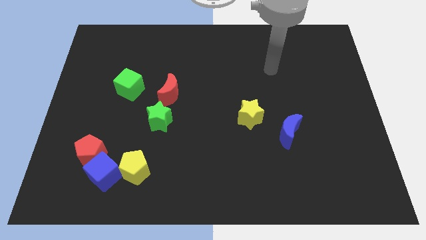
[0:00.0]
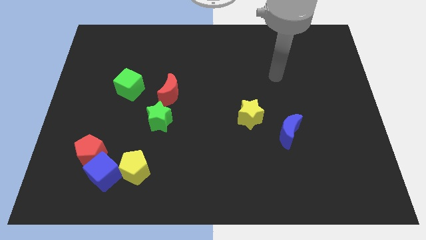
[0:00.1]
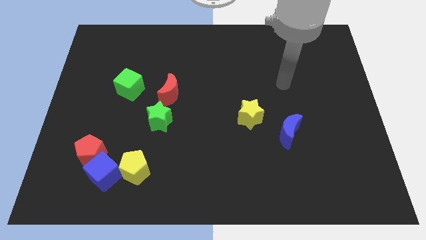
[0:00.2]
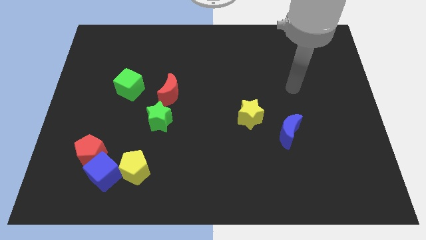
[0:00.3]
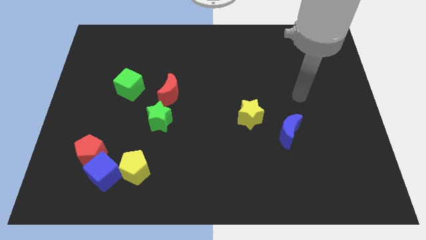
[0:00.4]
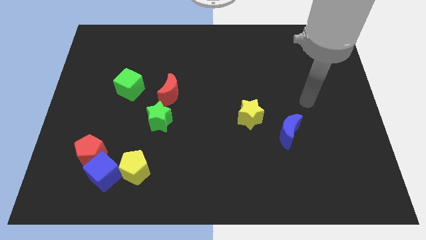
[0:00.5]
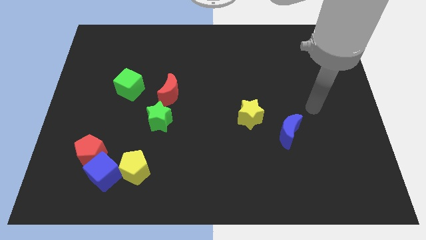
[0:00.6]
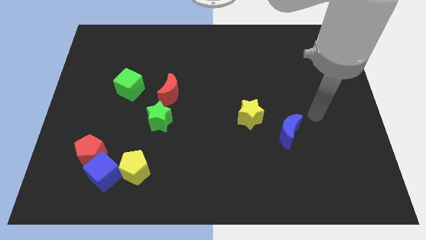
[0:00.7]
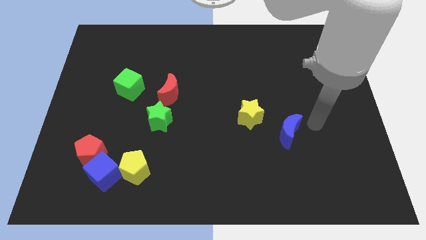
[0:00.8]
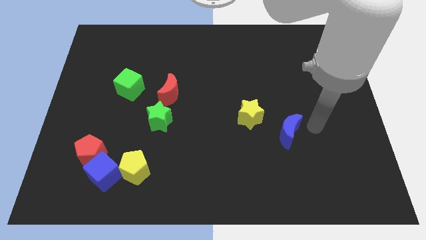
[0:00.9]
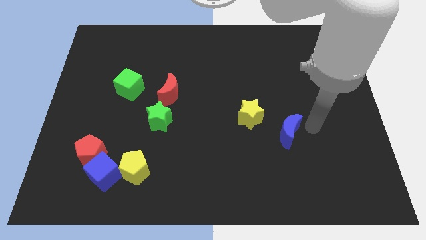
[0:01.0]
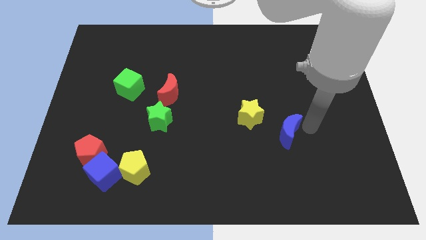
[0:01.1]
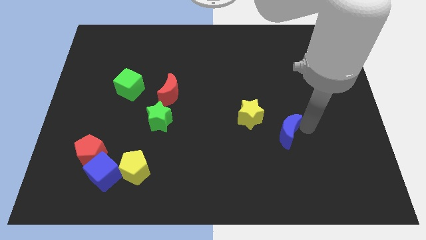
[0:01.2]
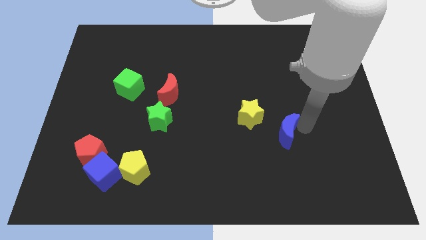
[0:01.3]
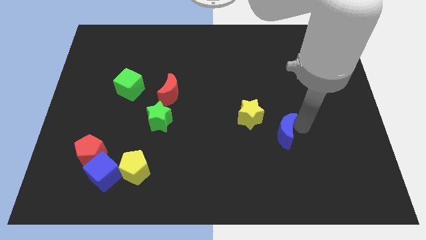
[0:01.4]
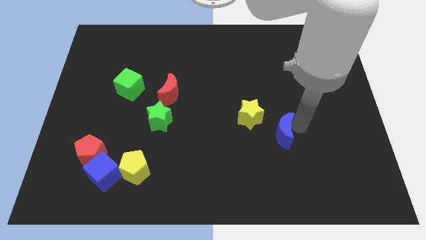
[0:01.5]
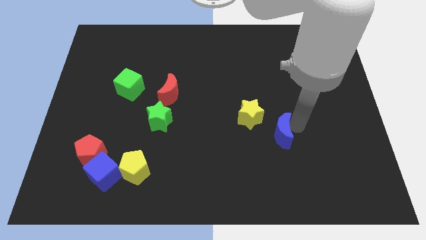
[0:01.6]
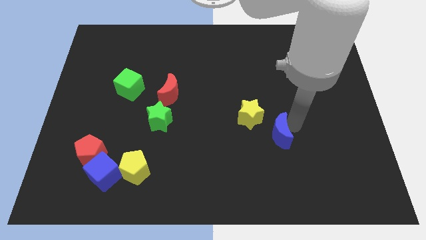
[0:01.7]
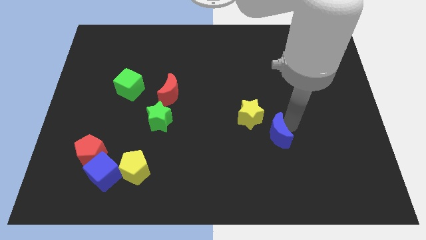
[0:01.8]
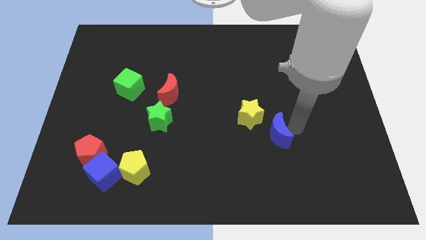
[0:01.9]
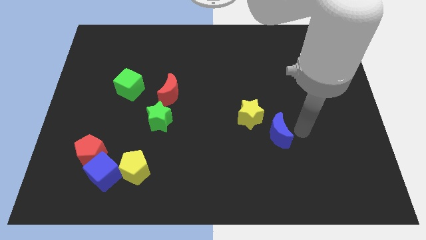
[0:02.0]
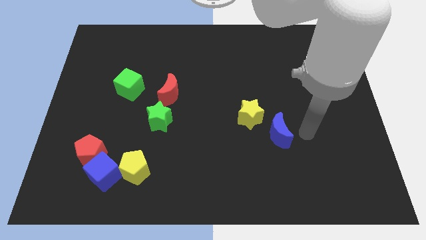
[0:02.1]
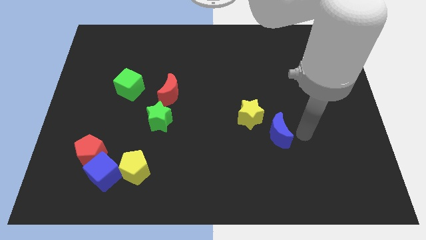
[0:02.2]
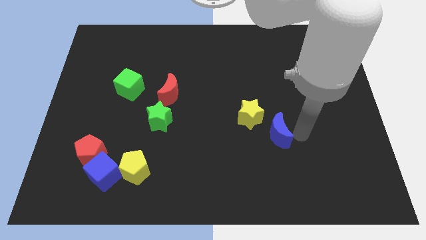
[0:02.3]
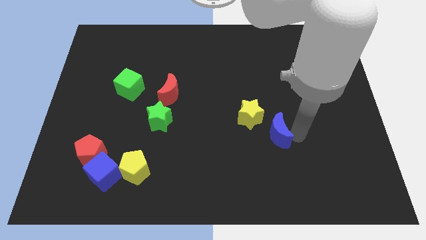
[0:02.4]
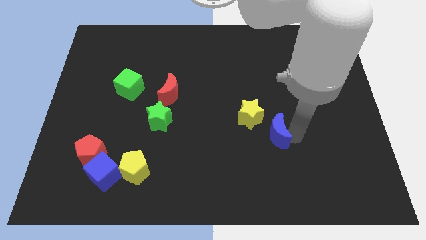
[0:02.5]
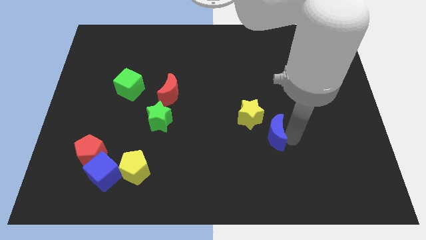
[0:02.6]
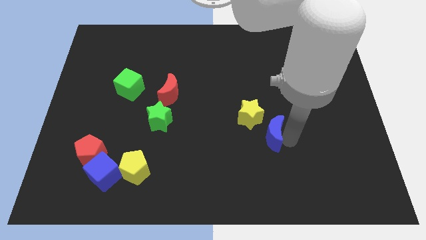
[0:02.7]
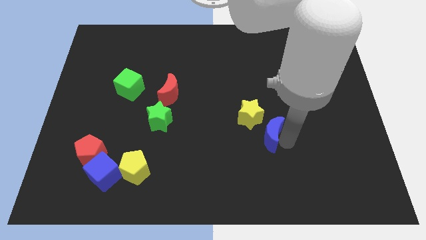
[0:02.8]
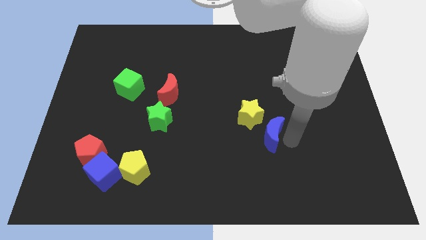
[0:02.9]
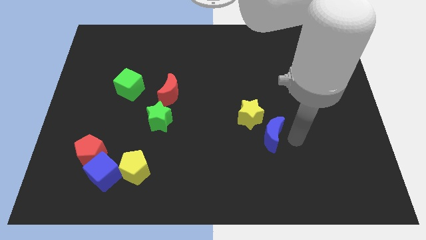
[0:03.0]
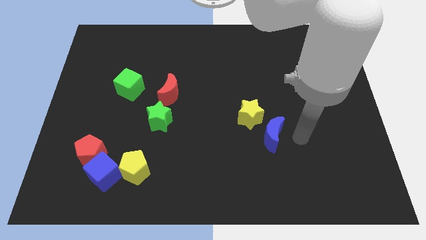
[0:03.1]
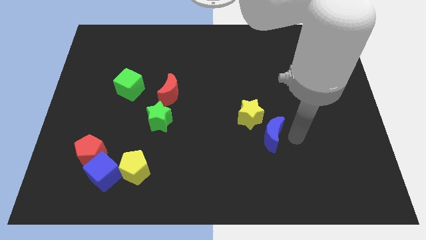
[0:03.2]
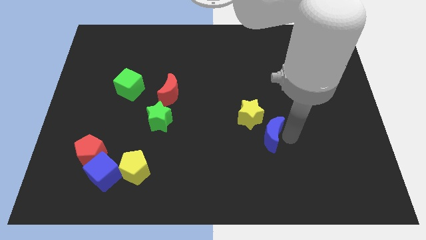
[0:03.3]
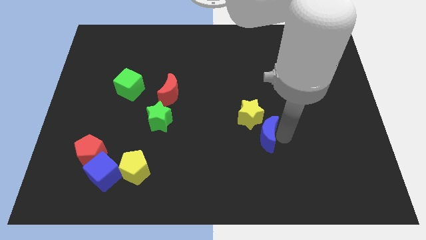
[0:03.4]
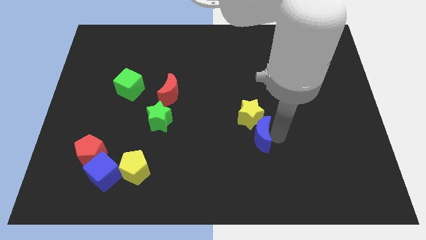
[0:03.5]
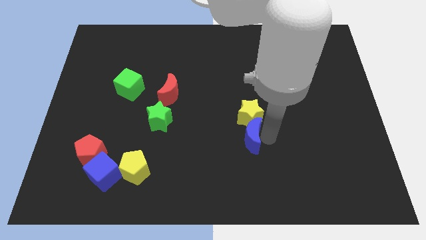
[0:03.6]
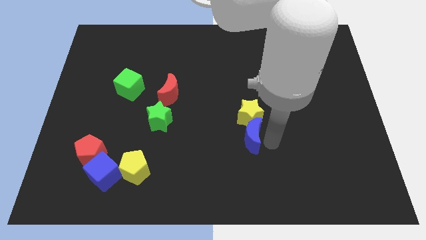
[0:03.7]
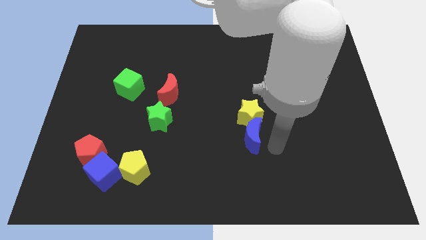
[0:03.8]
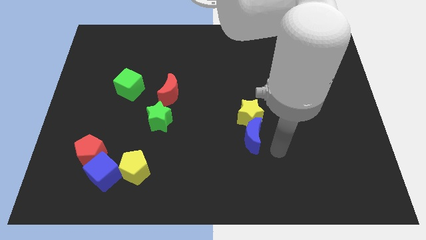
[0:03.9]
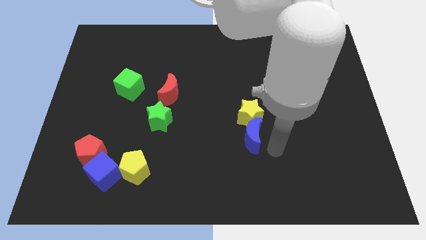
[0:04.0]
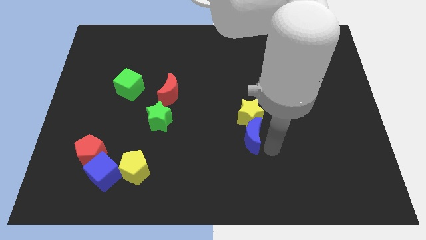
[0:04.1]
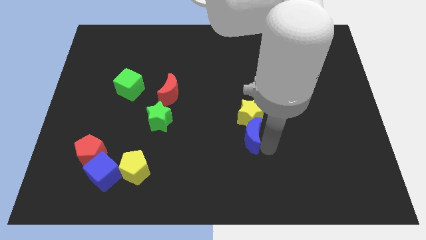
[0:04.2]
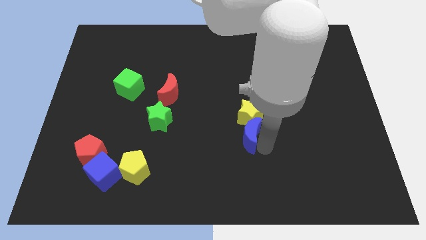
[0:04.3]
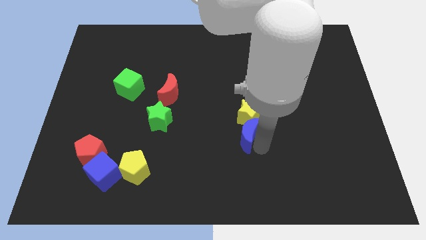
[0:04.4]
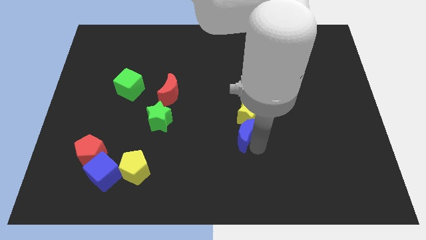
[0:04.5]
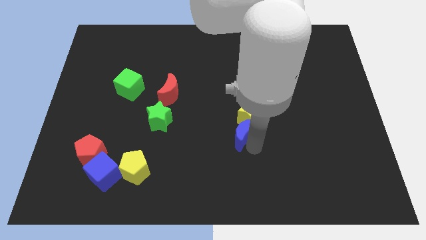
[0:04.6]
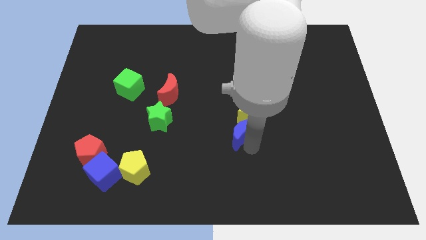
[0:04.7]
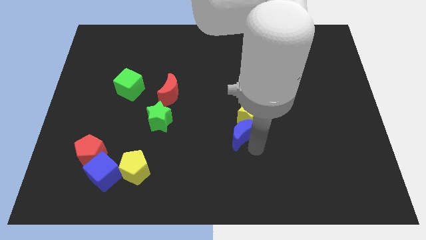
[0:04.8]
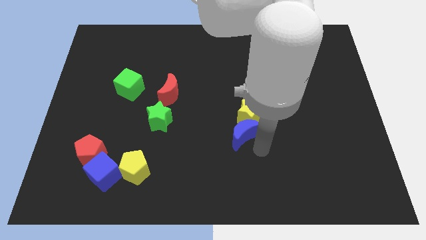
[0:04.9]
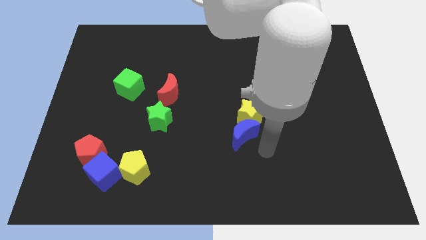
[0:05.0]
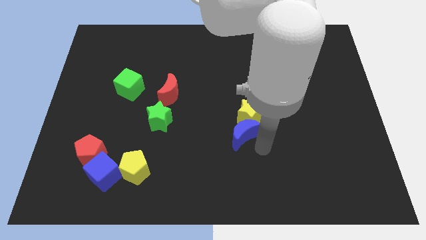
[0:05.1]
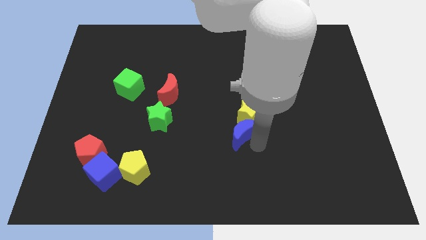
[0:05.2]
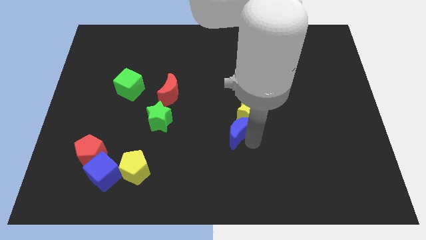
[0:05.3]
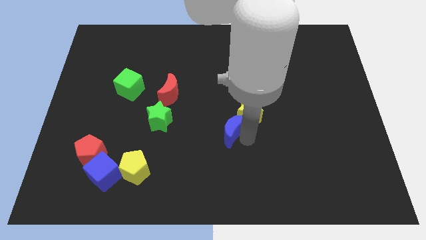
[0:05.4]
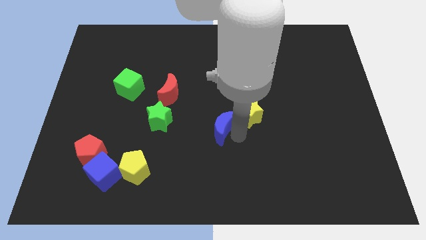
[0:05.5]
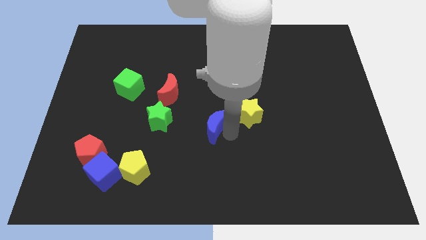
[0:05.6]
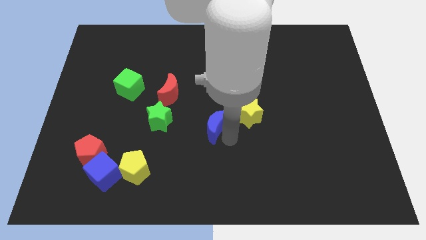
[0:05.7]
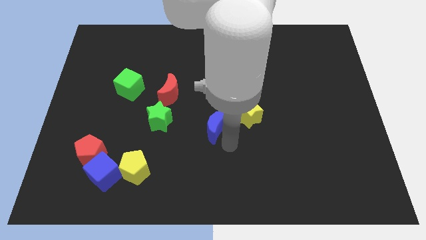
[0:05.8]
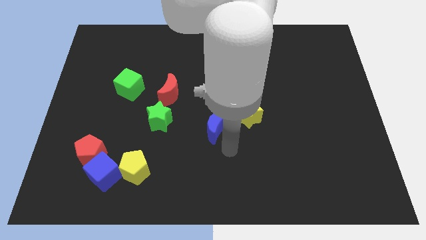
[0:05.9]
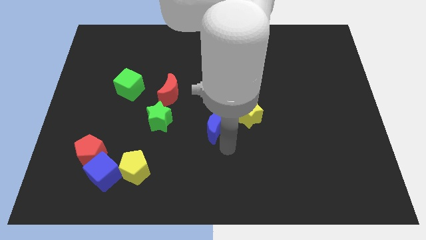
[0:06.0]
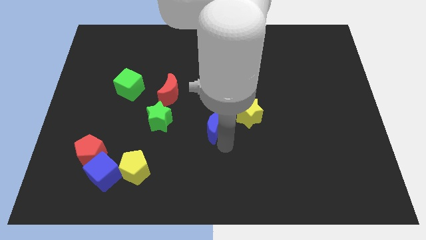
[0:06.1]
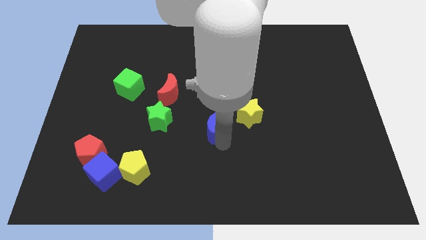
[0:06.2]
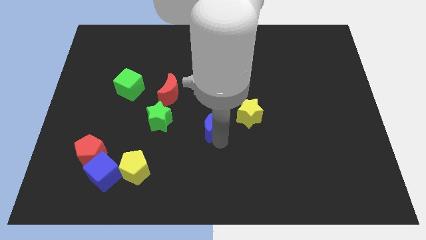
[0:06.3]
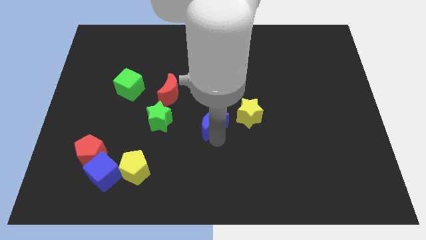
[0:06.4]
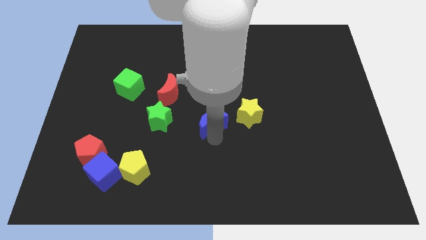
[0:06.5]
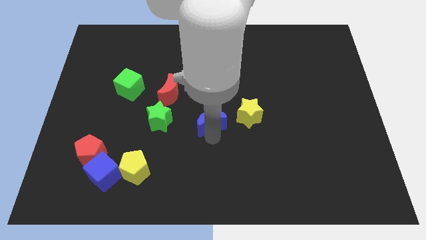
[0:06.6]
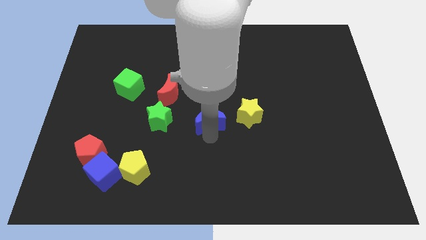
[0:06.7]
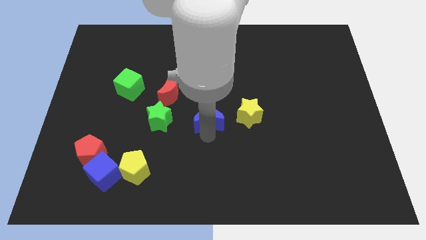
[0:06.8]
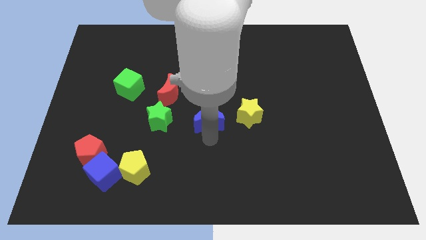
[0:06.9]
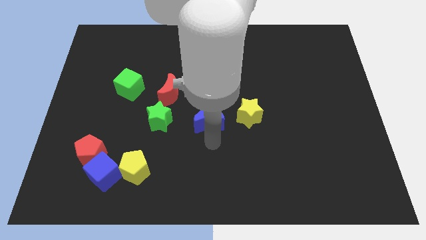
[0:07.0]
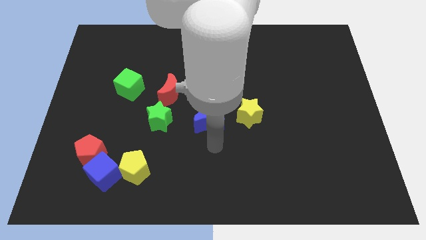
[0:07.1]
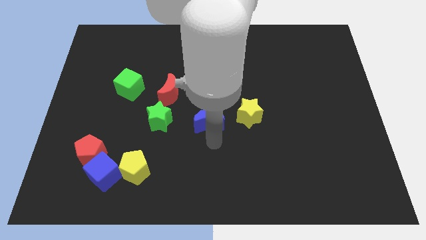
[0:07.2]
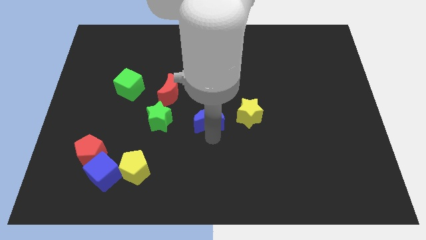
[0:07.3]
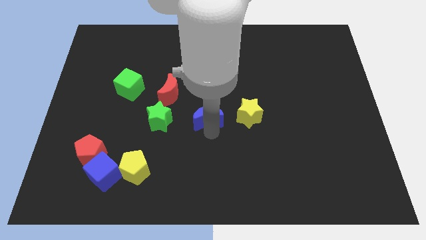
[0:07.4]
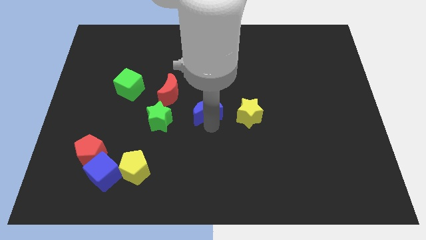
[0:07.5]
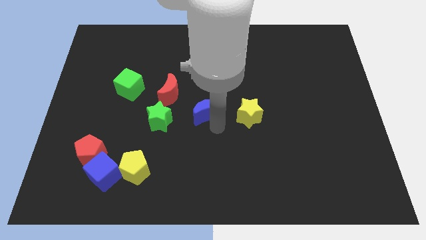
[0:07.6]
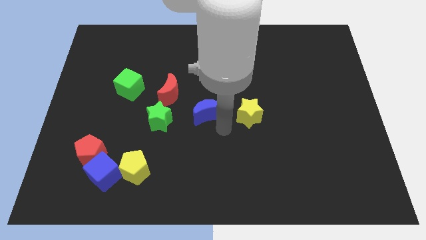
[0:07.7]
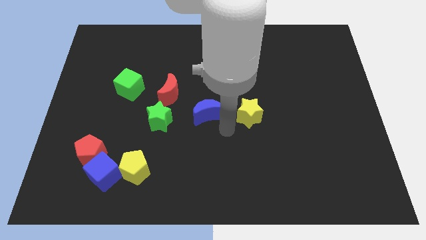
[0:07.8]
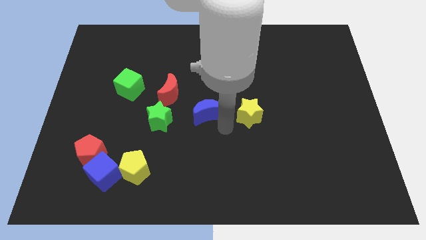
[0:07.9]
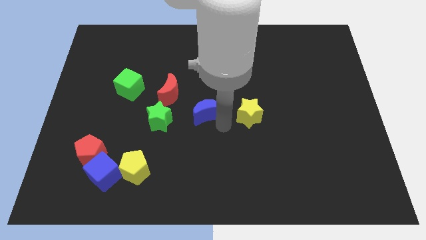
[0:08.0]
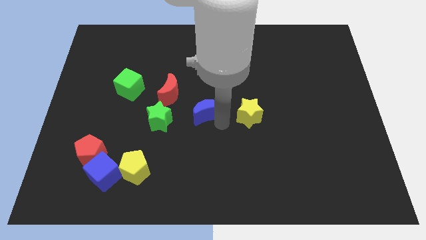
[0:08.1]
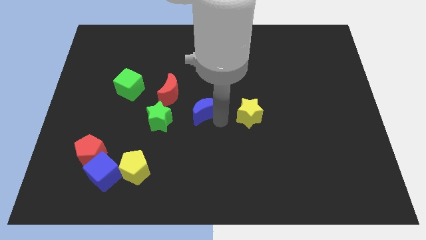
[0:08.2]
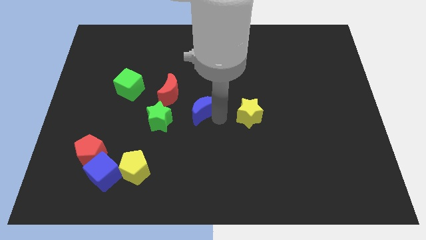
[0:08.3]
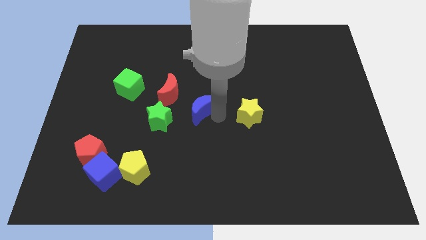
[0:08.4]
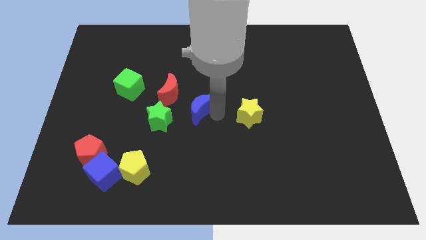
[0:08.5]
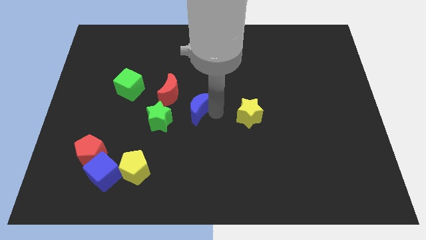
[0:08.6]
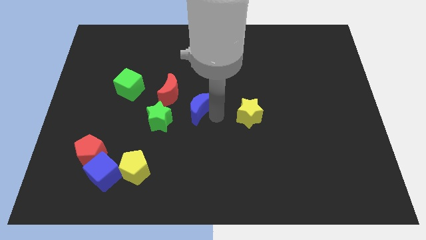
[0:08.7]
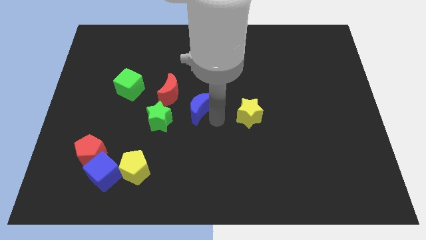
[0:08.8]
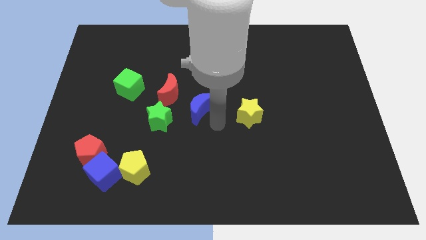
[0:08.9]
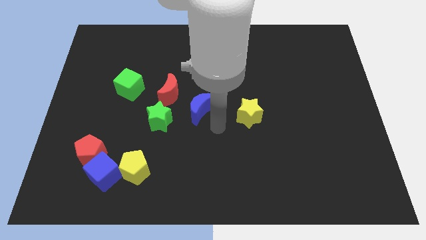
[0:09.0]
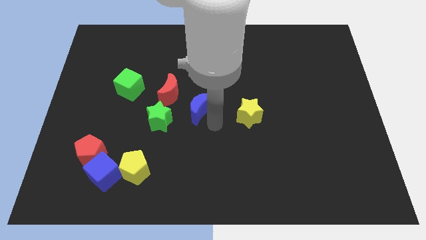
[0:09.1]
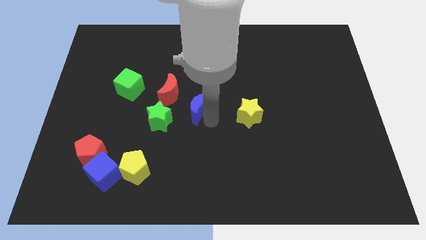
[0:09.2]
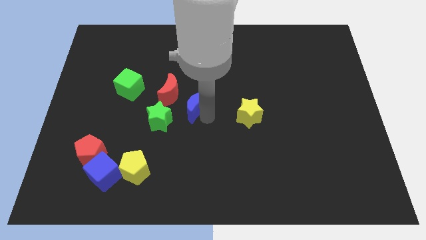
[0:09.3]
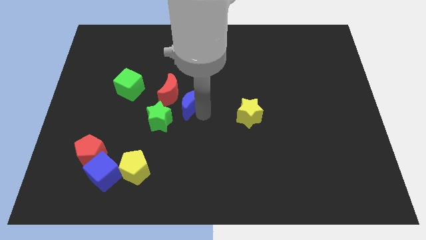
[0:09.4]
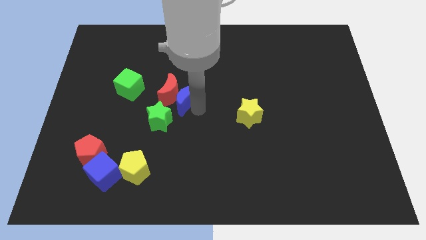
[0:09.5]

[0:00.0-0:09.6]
put the blue moon close to the red moon
